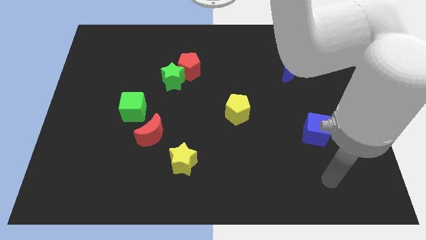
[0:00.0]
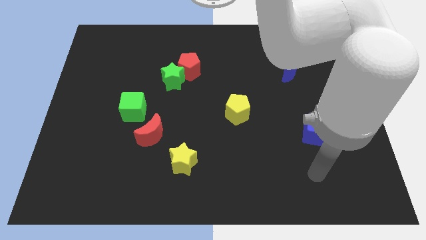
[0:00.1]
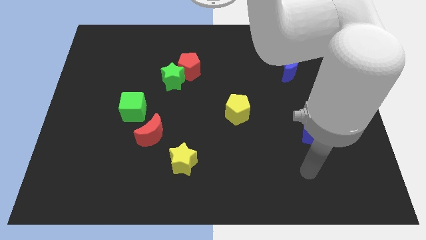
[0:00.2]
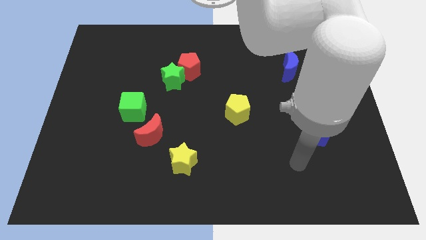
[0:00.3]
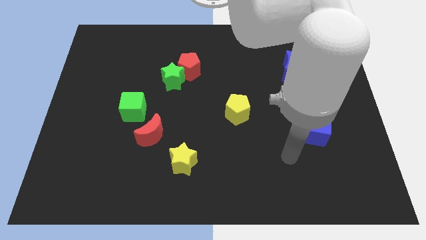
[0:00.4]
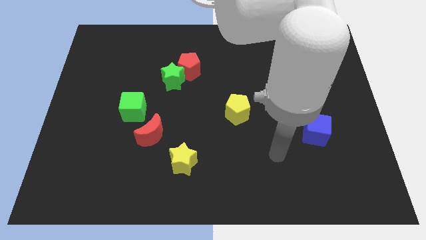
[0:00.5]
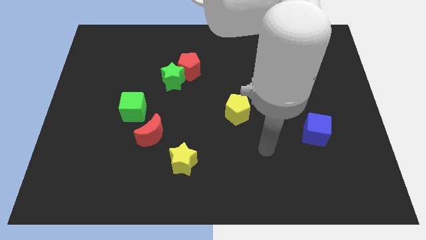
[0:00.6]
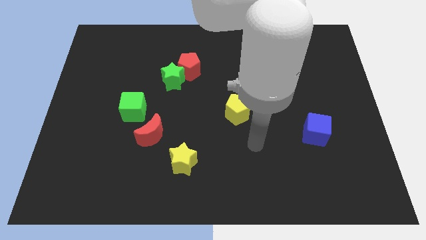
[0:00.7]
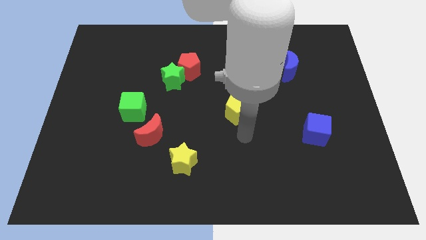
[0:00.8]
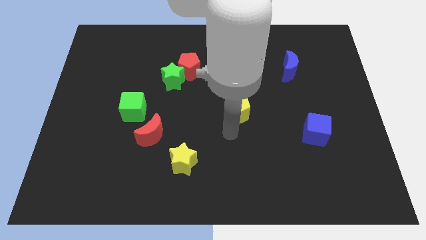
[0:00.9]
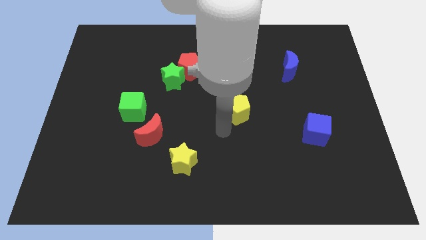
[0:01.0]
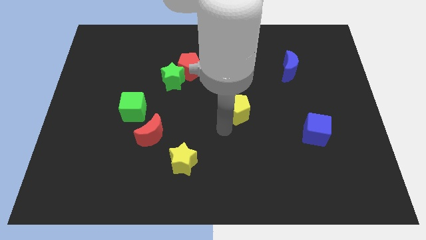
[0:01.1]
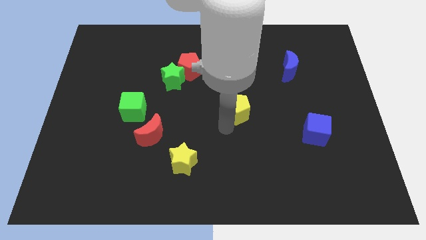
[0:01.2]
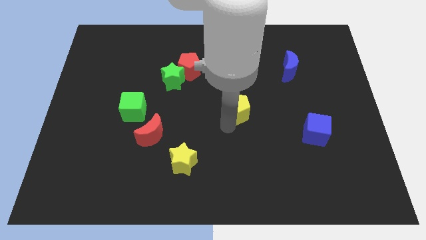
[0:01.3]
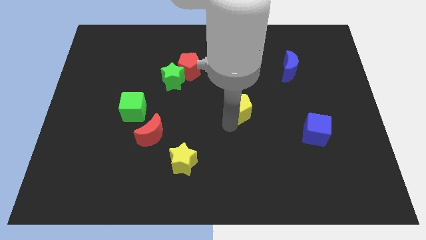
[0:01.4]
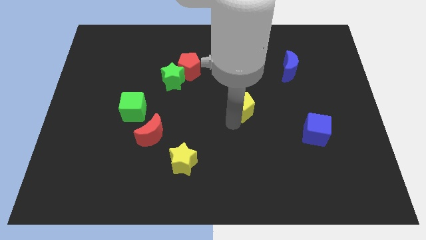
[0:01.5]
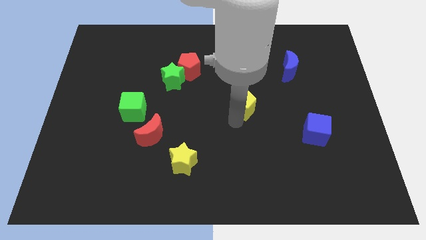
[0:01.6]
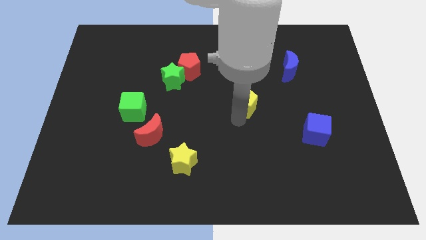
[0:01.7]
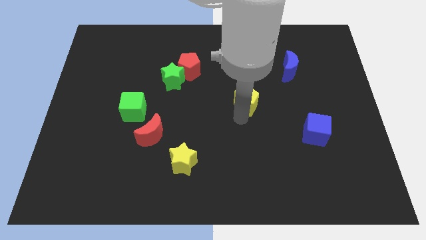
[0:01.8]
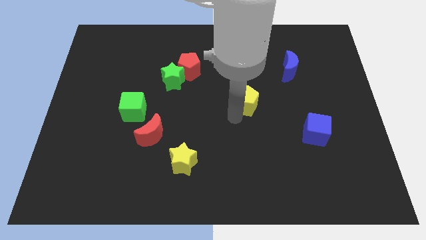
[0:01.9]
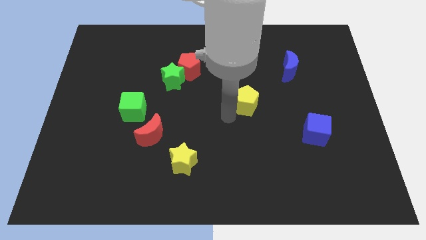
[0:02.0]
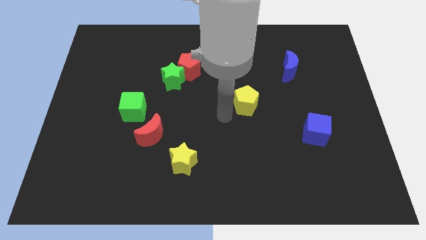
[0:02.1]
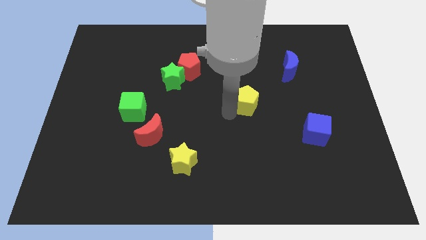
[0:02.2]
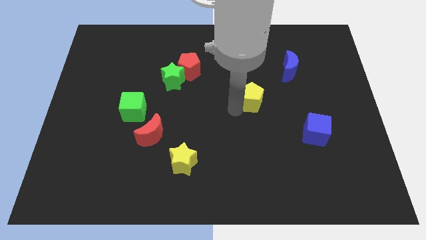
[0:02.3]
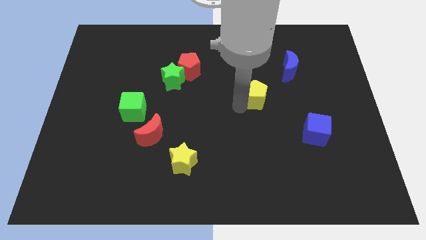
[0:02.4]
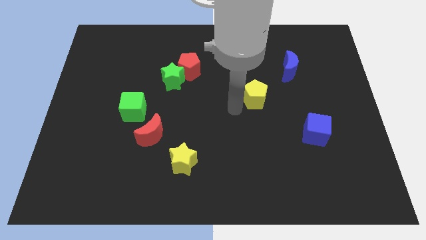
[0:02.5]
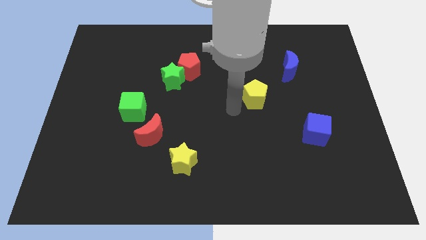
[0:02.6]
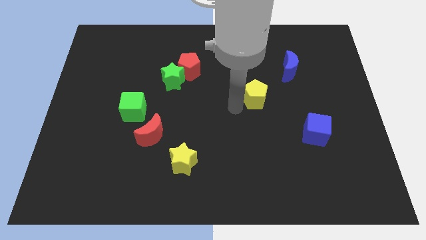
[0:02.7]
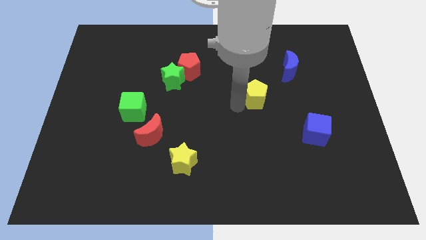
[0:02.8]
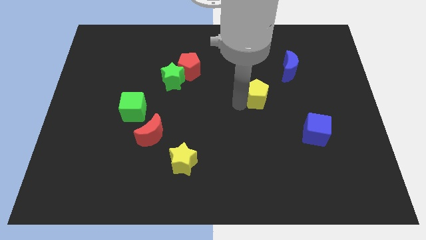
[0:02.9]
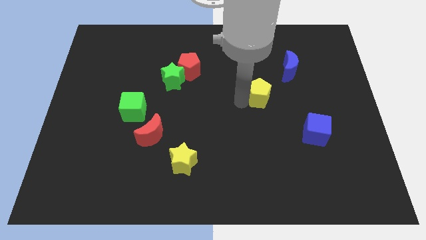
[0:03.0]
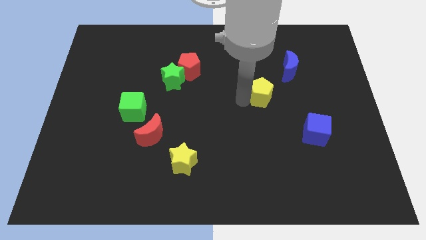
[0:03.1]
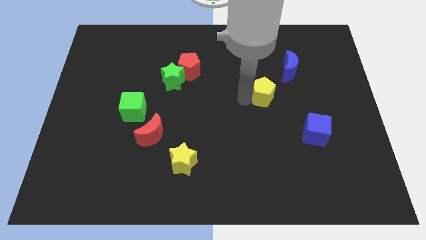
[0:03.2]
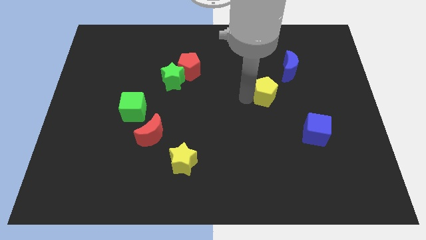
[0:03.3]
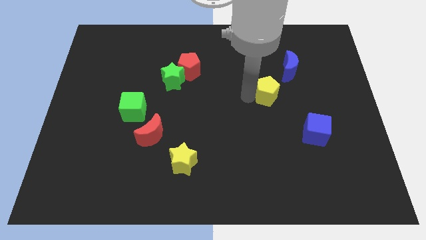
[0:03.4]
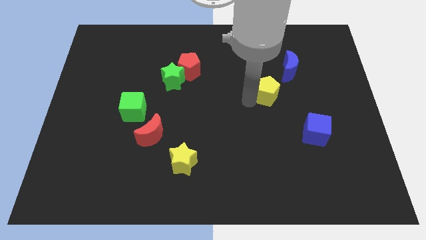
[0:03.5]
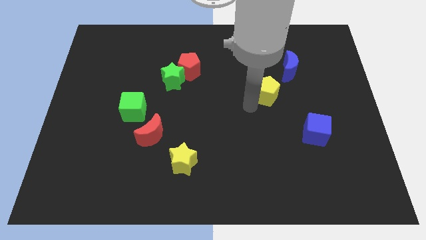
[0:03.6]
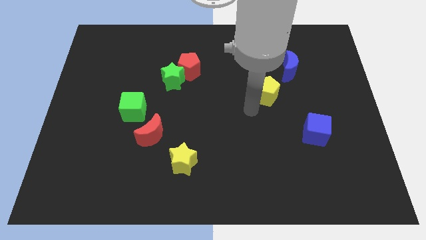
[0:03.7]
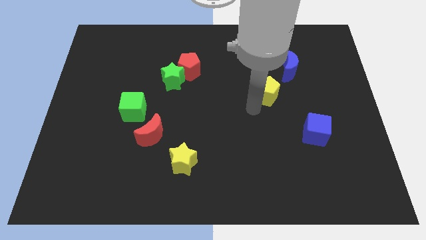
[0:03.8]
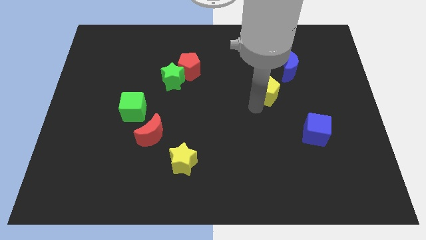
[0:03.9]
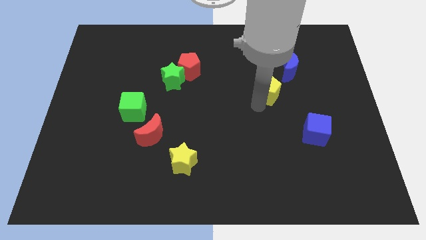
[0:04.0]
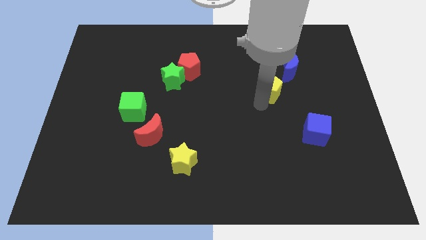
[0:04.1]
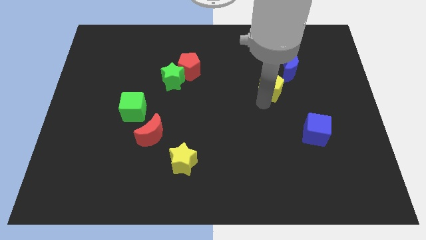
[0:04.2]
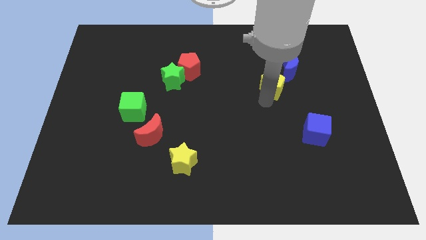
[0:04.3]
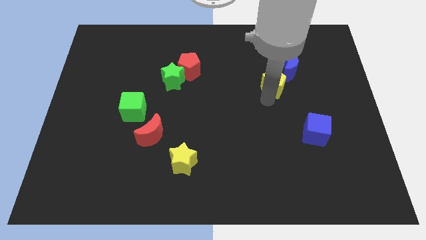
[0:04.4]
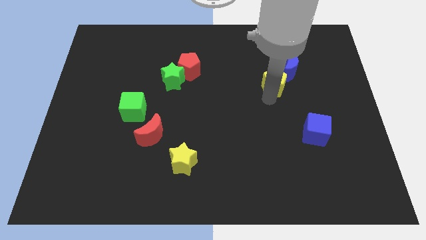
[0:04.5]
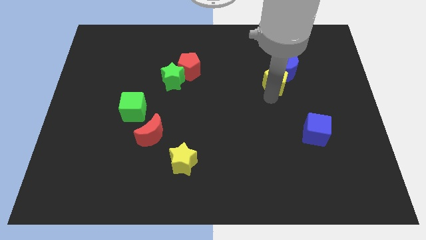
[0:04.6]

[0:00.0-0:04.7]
push the yellow pentagon to the blue moon

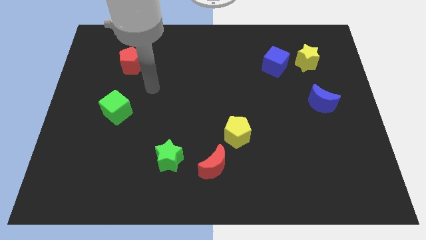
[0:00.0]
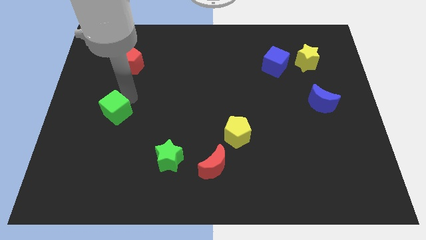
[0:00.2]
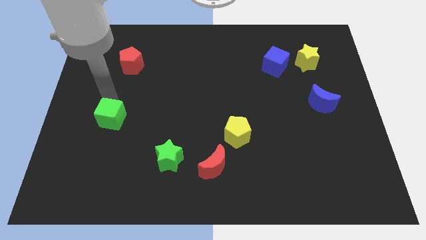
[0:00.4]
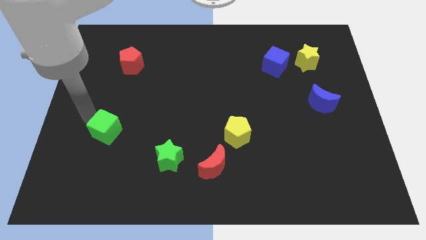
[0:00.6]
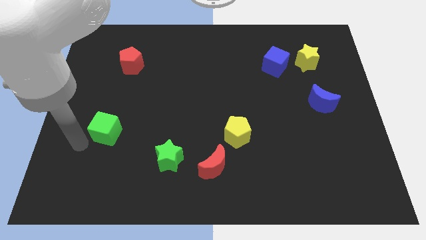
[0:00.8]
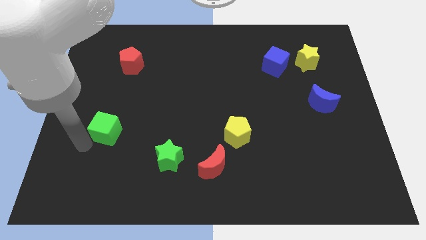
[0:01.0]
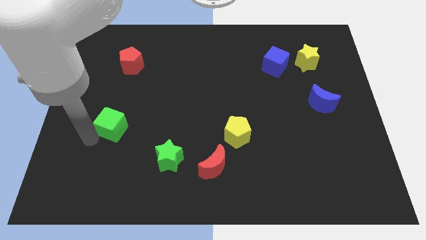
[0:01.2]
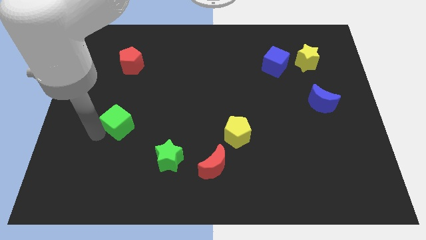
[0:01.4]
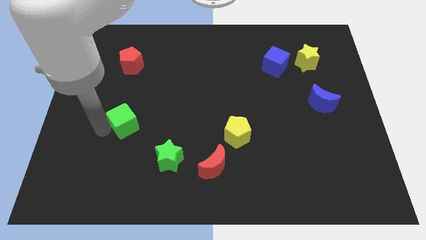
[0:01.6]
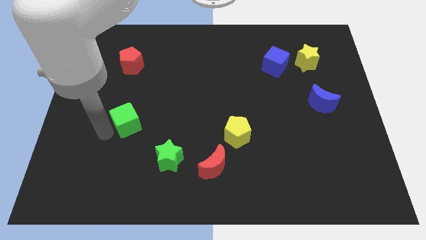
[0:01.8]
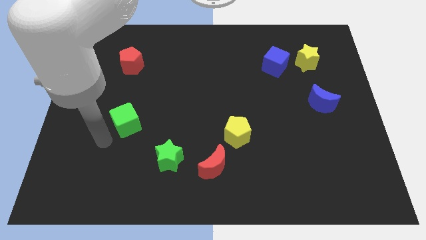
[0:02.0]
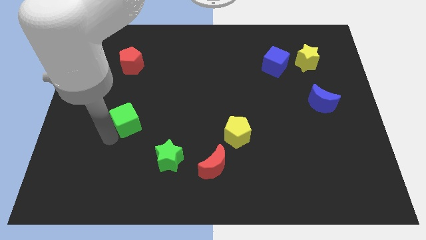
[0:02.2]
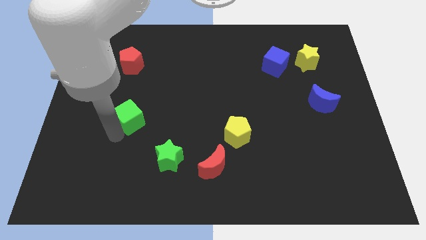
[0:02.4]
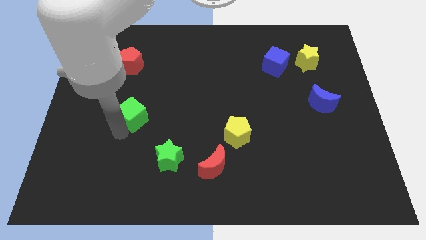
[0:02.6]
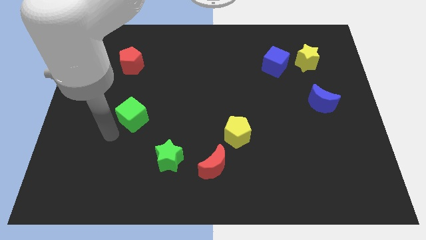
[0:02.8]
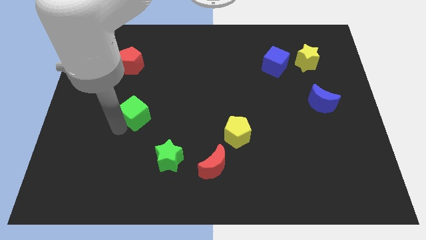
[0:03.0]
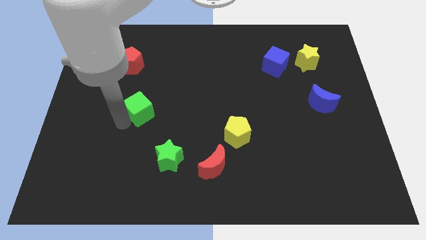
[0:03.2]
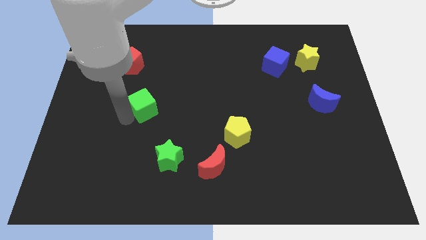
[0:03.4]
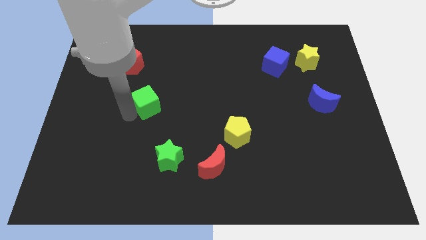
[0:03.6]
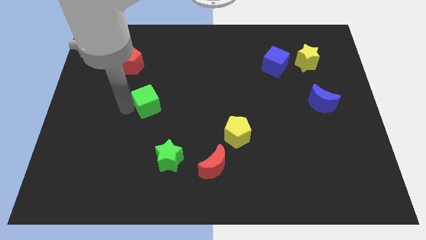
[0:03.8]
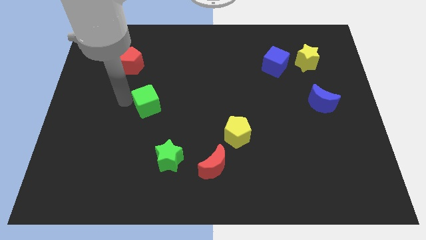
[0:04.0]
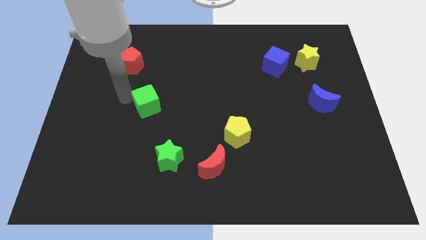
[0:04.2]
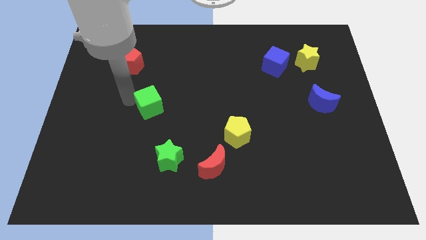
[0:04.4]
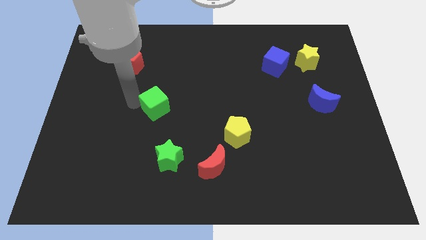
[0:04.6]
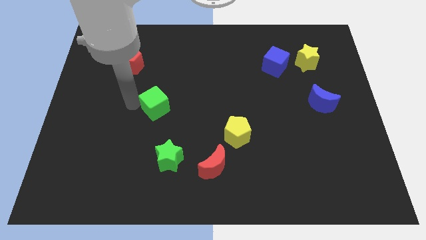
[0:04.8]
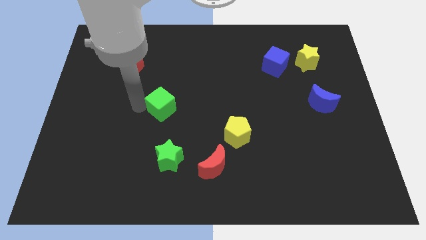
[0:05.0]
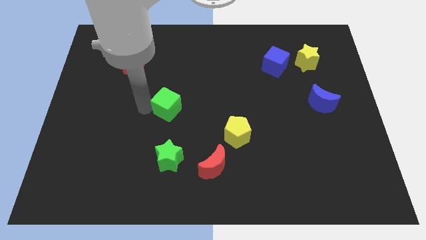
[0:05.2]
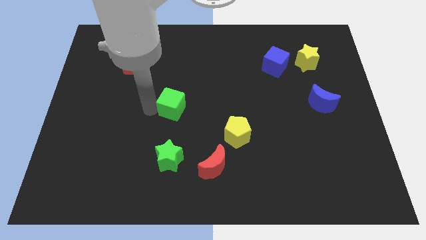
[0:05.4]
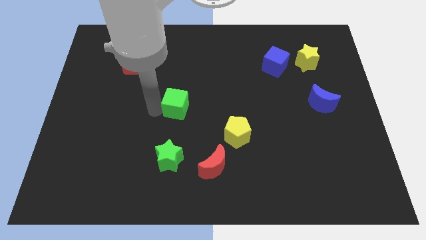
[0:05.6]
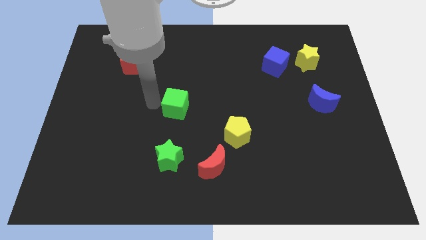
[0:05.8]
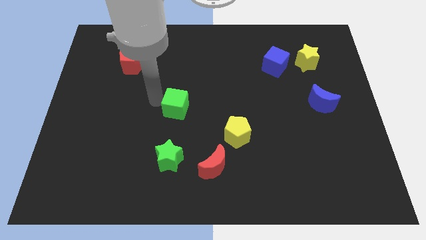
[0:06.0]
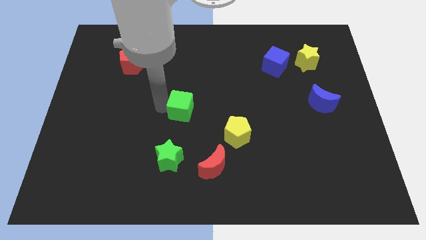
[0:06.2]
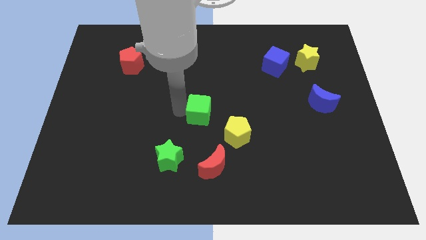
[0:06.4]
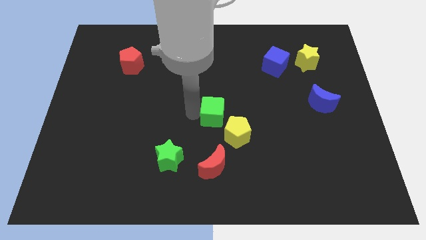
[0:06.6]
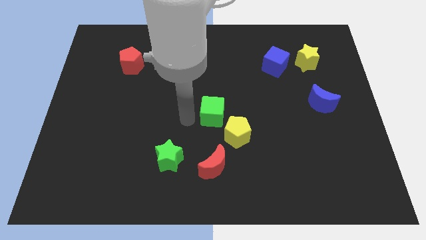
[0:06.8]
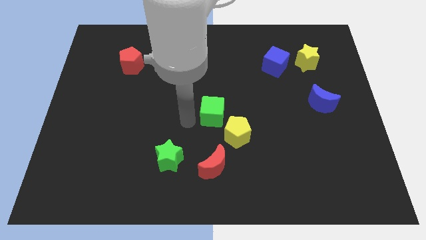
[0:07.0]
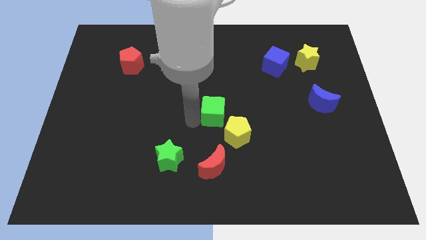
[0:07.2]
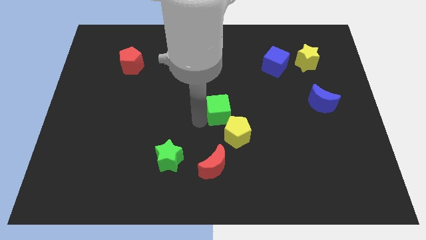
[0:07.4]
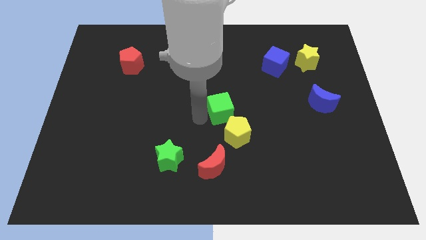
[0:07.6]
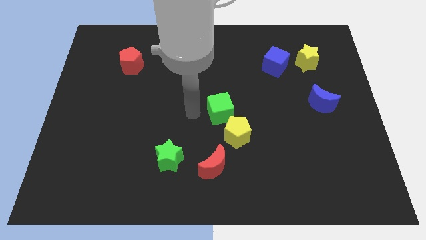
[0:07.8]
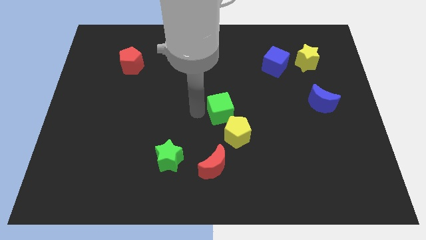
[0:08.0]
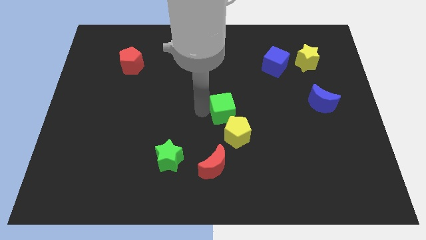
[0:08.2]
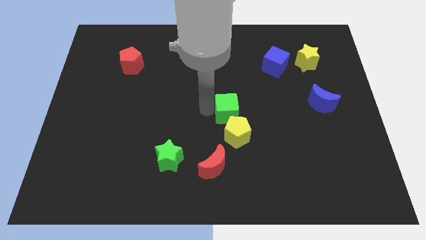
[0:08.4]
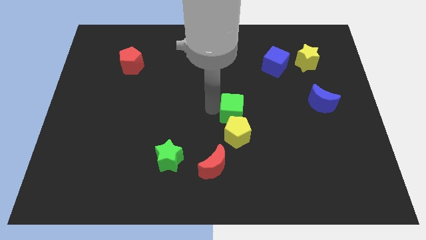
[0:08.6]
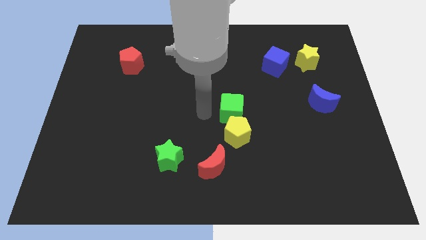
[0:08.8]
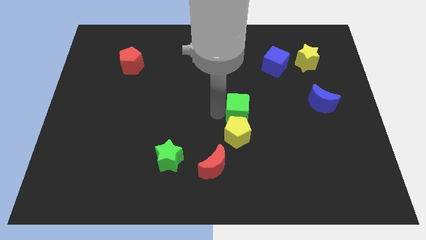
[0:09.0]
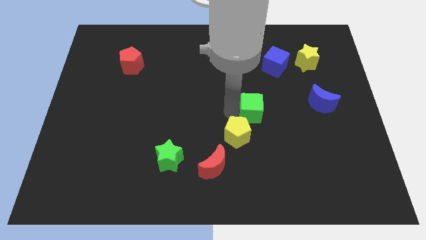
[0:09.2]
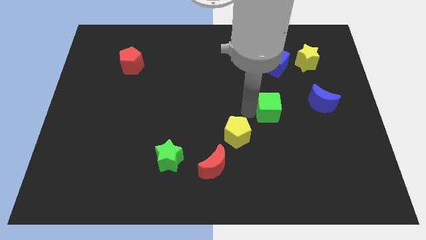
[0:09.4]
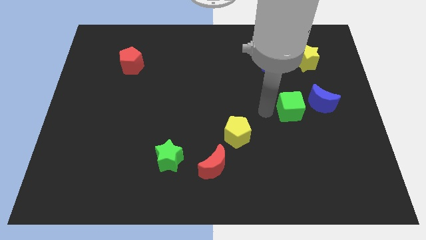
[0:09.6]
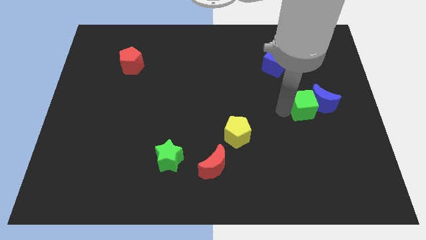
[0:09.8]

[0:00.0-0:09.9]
put the green cube to the blue moon
